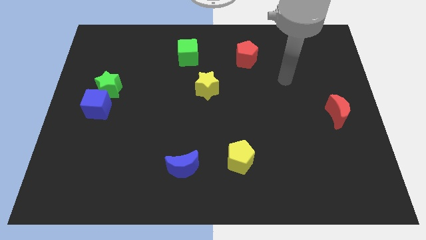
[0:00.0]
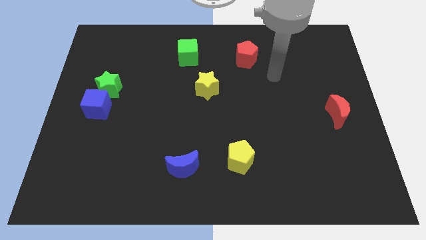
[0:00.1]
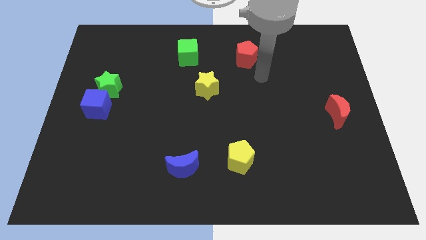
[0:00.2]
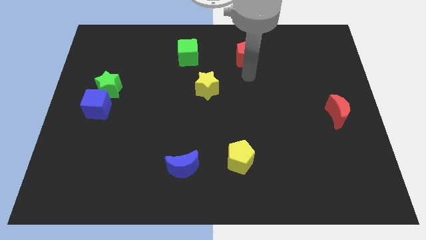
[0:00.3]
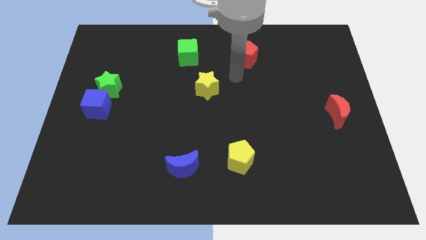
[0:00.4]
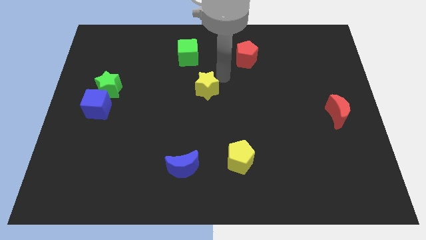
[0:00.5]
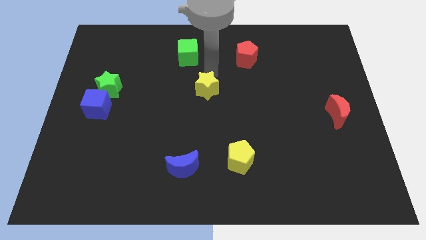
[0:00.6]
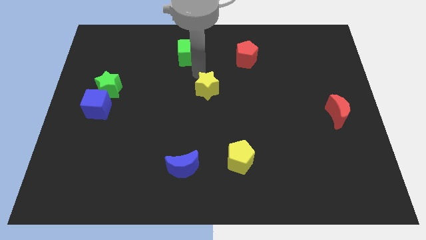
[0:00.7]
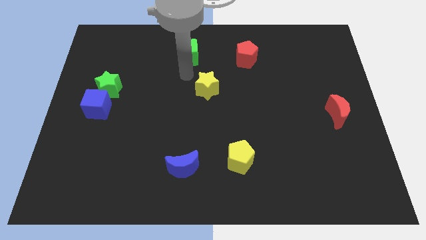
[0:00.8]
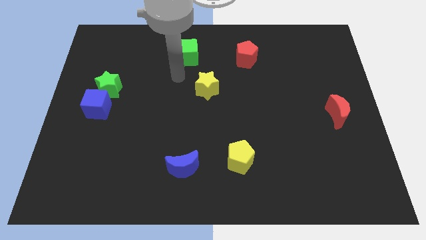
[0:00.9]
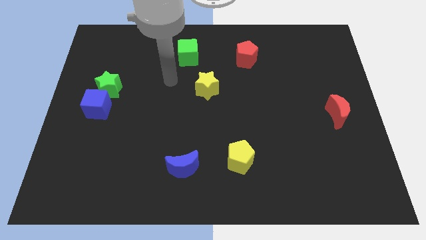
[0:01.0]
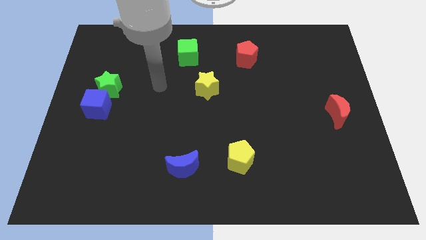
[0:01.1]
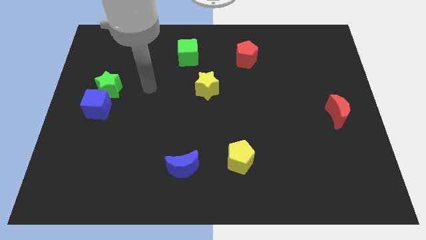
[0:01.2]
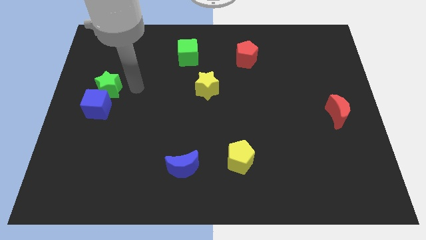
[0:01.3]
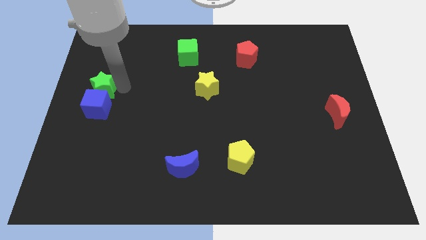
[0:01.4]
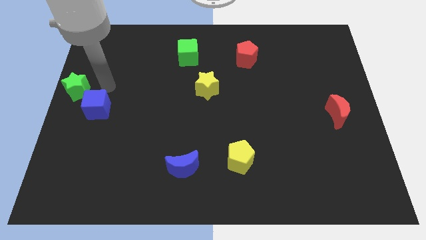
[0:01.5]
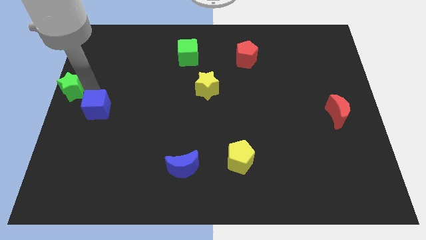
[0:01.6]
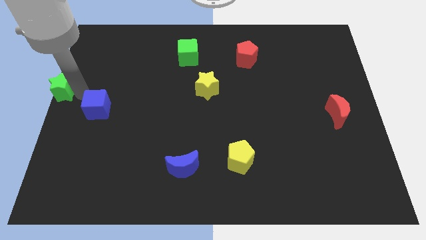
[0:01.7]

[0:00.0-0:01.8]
separate the blue cube from the green star

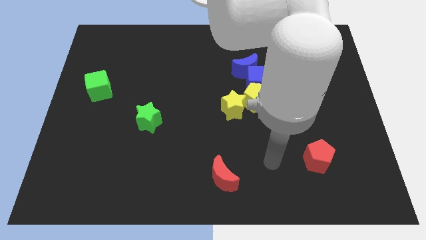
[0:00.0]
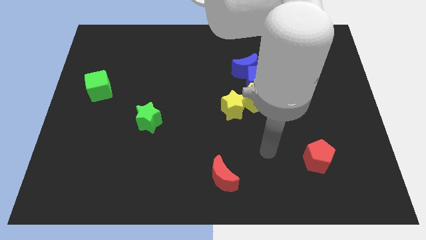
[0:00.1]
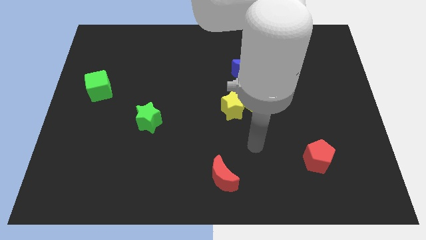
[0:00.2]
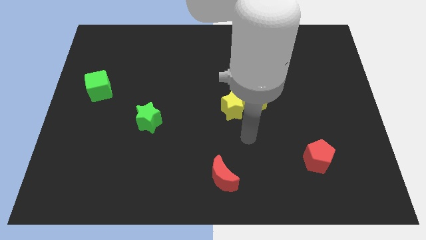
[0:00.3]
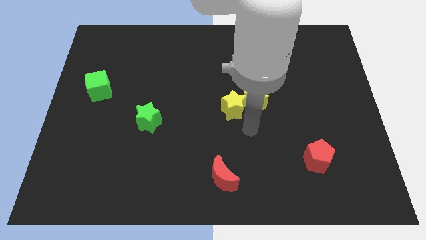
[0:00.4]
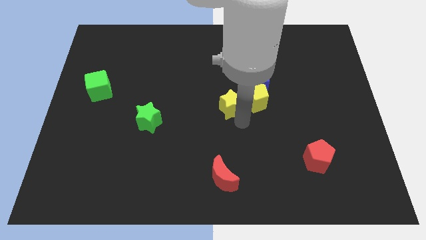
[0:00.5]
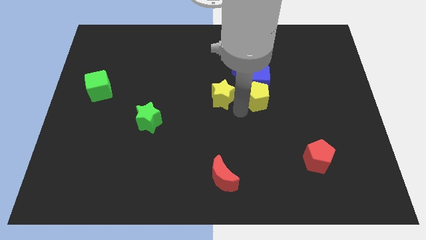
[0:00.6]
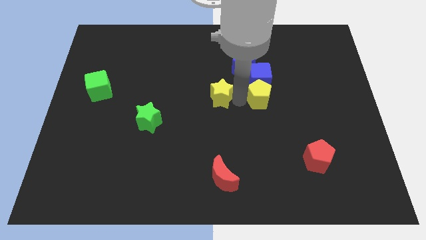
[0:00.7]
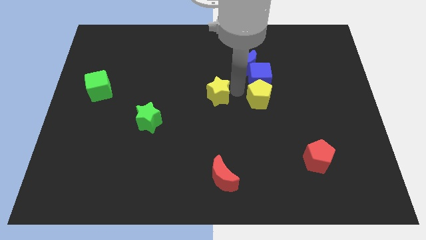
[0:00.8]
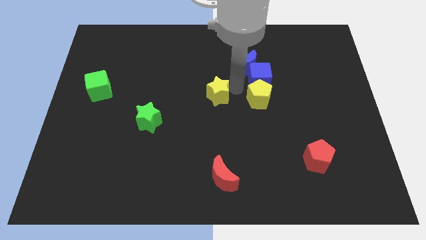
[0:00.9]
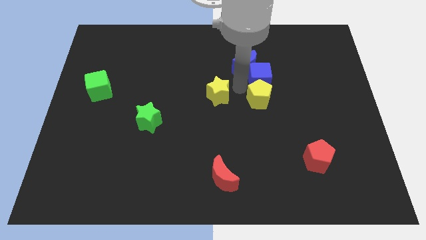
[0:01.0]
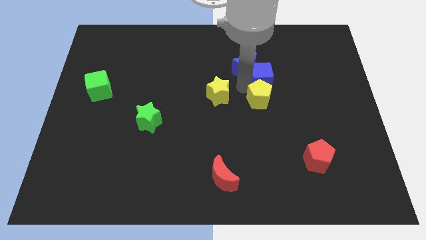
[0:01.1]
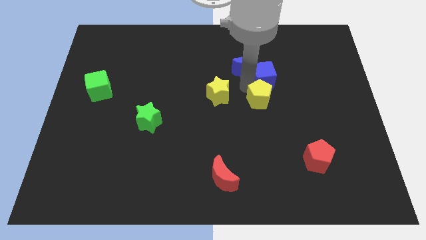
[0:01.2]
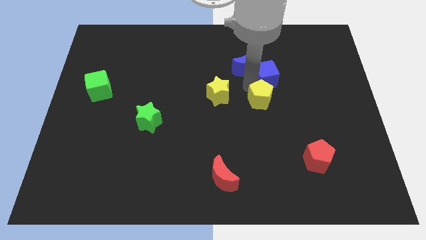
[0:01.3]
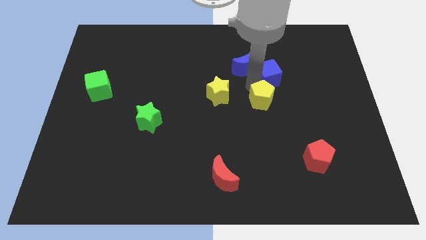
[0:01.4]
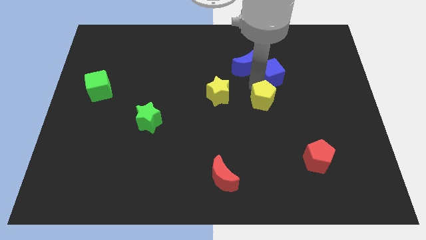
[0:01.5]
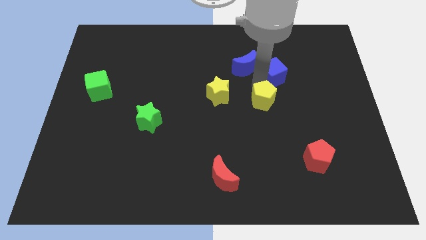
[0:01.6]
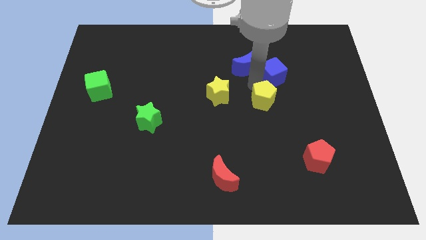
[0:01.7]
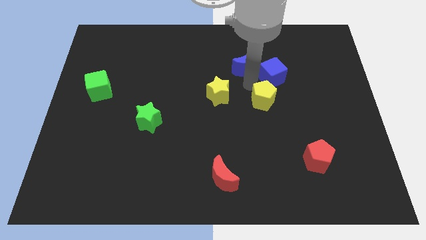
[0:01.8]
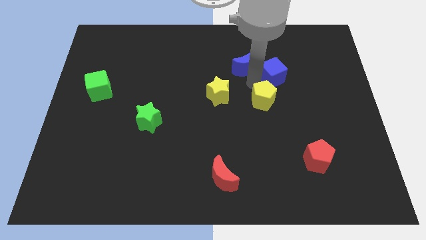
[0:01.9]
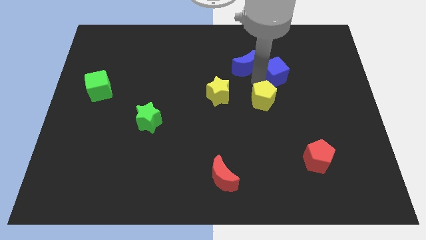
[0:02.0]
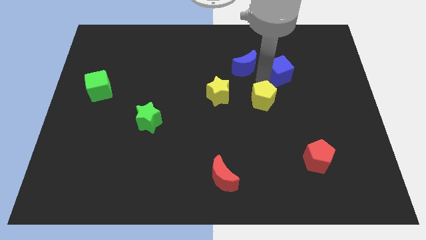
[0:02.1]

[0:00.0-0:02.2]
move the blue cube away from the blue moon, yellow pentagon, and yellow star

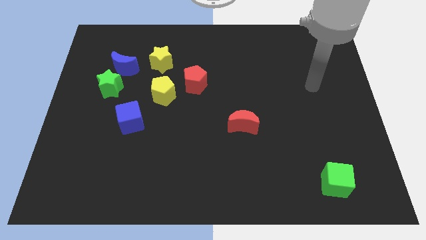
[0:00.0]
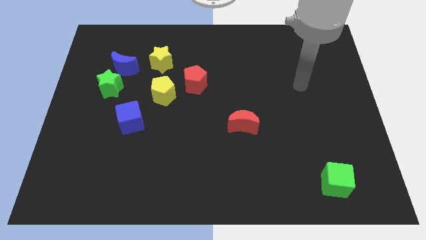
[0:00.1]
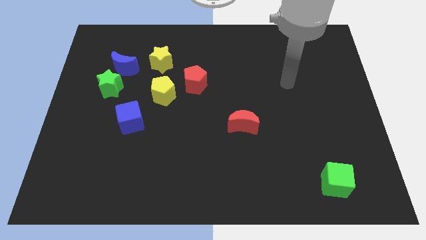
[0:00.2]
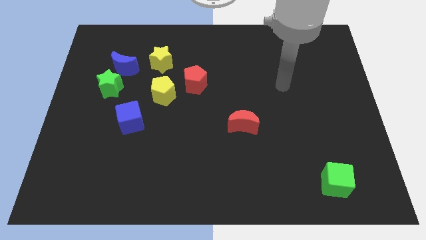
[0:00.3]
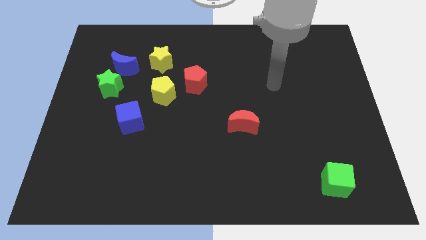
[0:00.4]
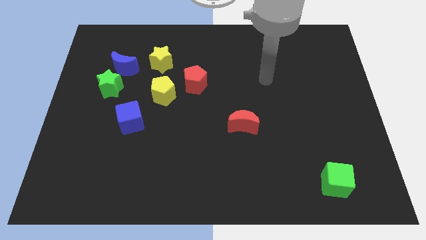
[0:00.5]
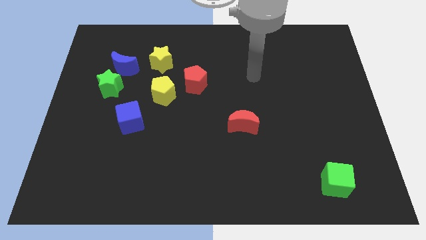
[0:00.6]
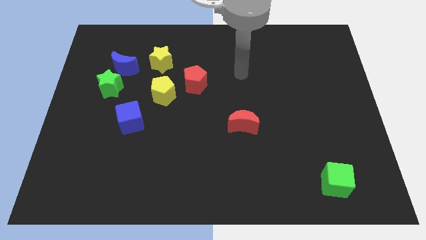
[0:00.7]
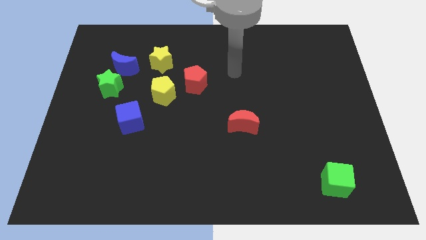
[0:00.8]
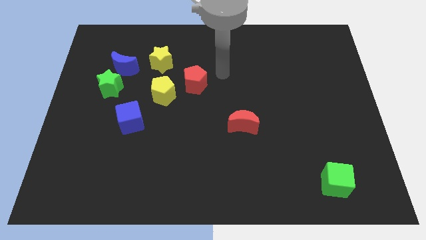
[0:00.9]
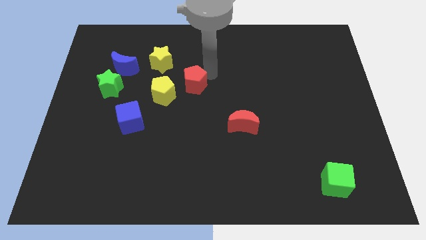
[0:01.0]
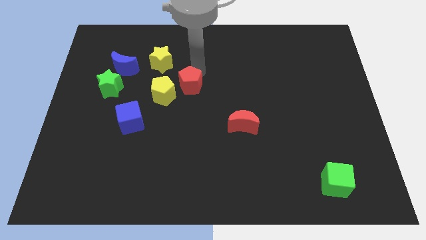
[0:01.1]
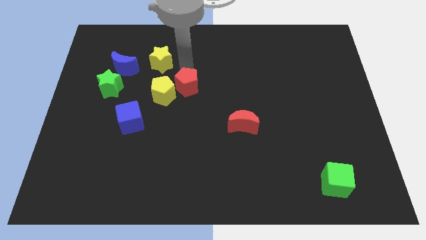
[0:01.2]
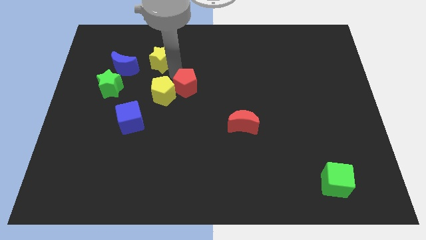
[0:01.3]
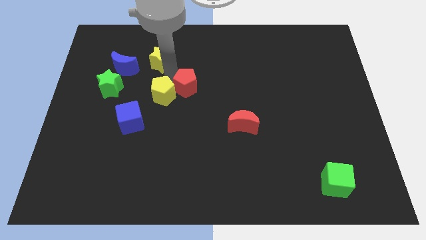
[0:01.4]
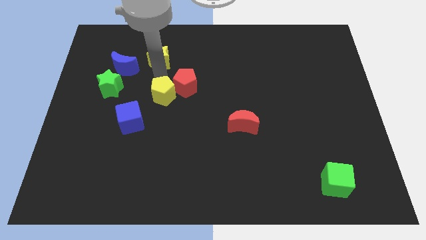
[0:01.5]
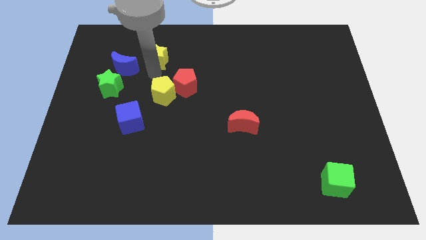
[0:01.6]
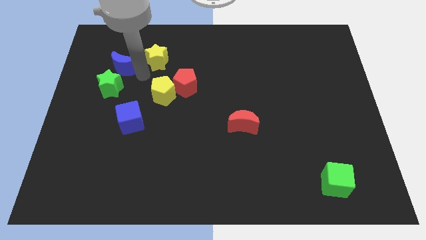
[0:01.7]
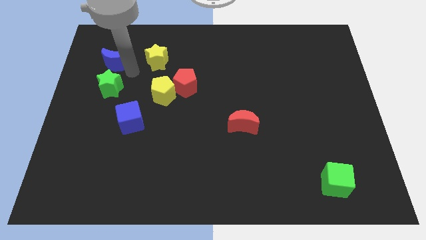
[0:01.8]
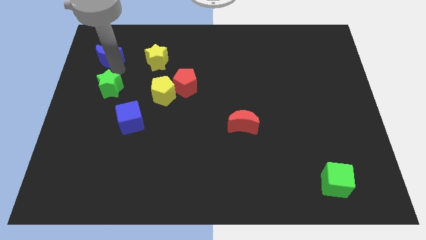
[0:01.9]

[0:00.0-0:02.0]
pull the green star apart from the blue moon

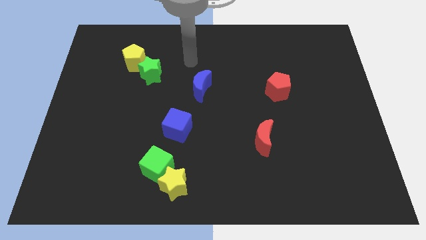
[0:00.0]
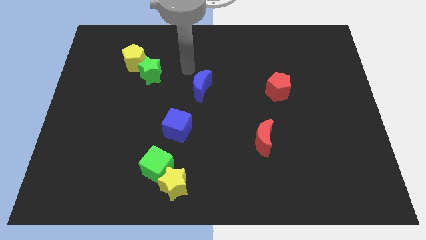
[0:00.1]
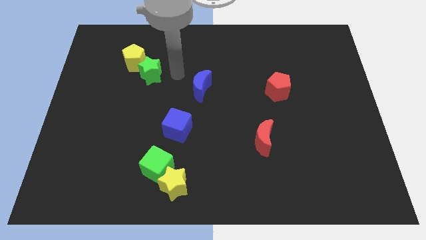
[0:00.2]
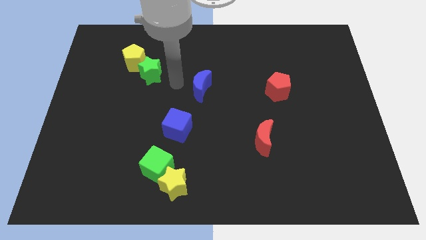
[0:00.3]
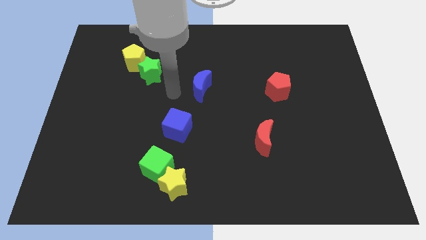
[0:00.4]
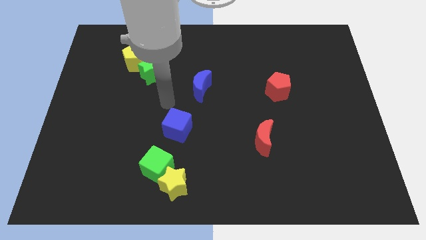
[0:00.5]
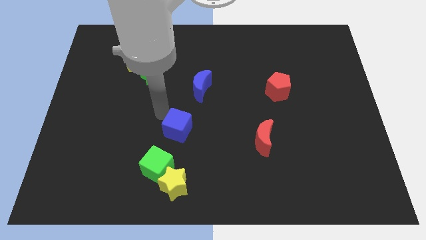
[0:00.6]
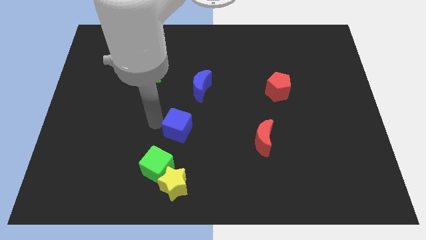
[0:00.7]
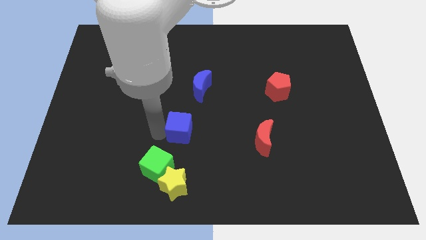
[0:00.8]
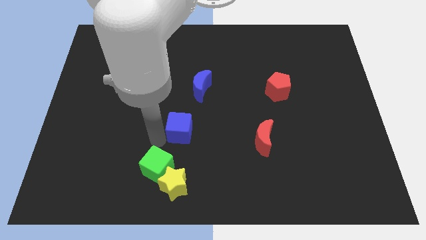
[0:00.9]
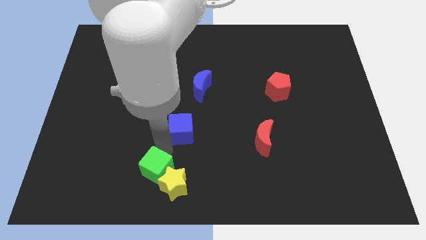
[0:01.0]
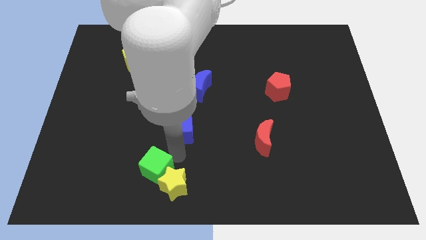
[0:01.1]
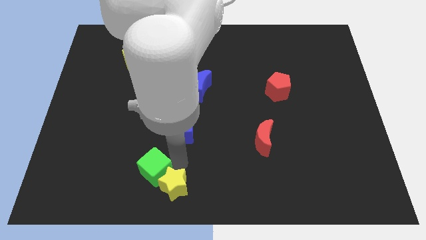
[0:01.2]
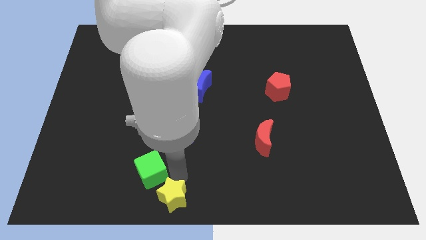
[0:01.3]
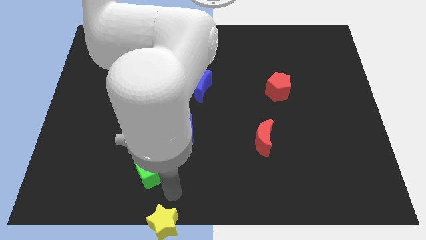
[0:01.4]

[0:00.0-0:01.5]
separate the green cube from the yellow star

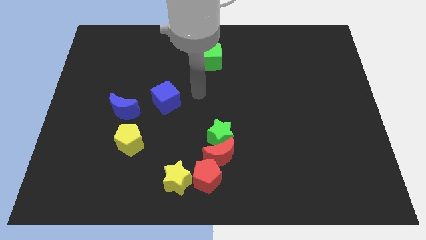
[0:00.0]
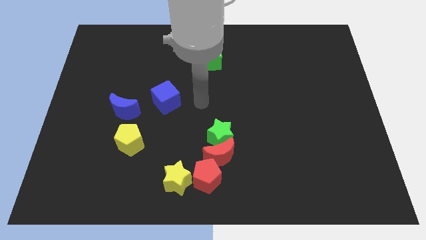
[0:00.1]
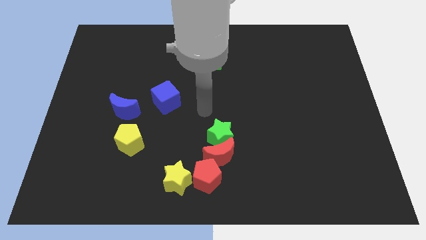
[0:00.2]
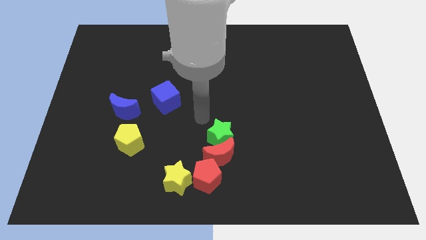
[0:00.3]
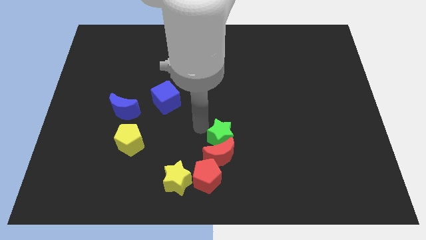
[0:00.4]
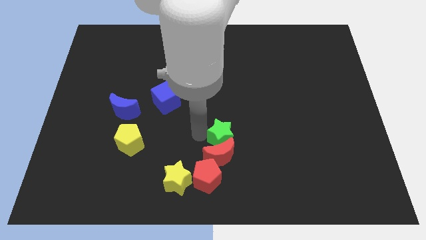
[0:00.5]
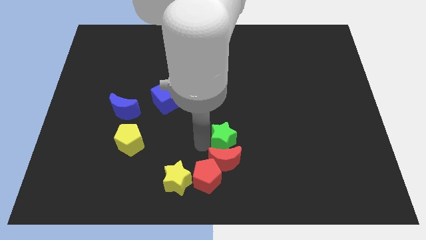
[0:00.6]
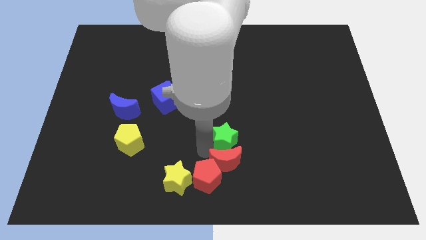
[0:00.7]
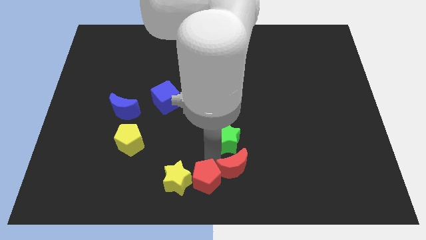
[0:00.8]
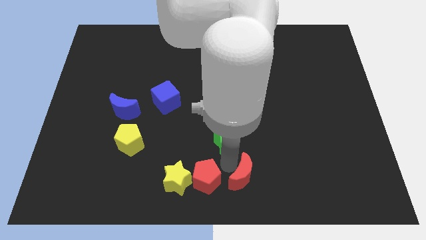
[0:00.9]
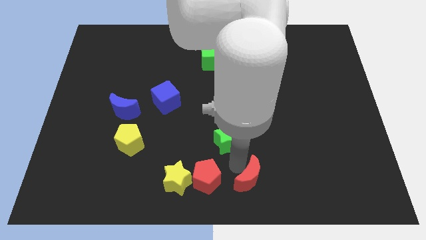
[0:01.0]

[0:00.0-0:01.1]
pull the green star apart from the red moon

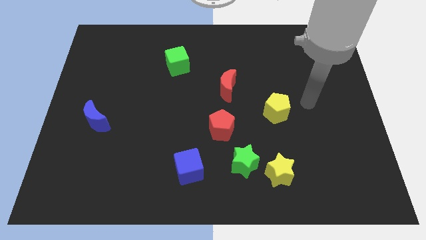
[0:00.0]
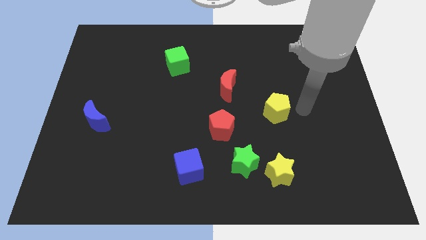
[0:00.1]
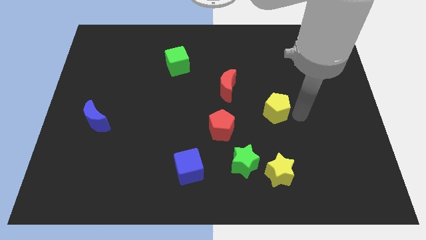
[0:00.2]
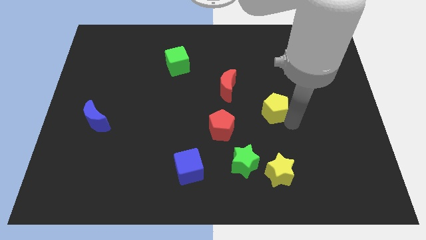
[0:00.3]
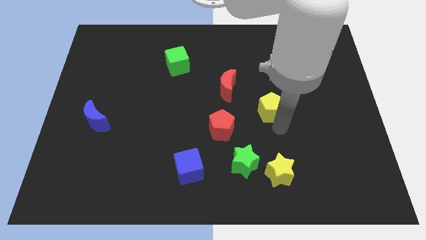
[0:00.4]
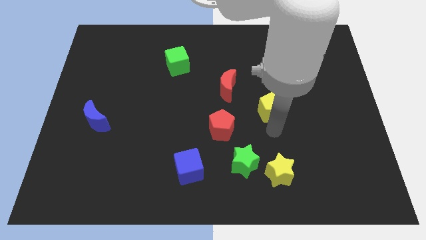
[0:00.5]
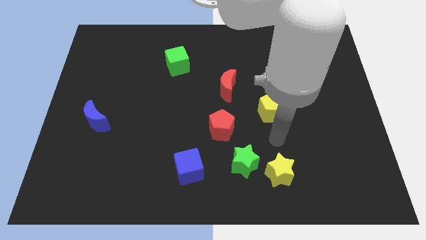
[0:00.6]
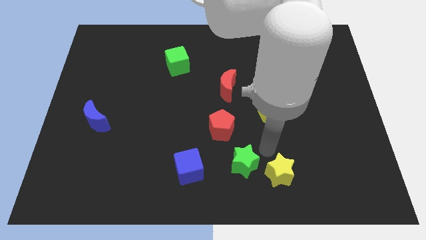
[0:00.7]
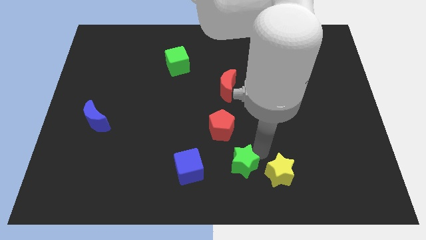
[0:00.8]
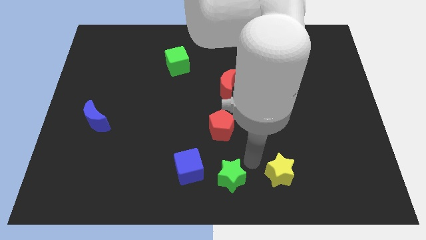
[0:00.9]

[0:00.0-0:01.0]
separate the yellow star from the green star
